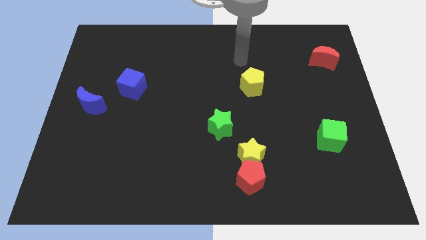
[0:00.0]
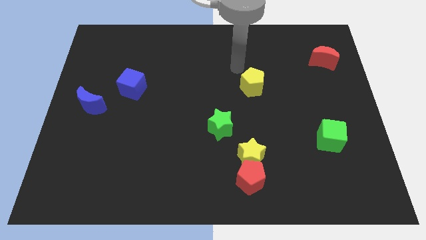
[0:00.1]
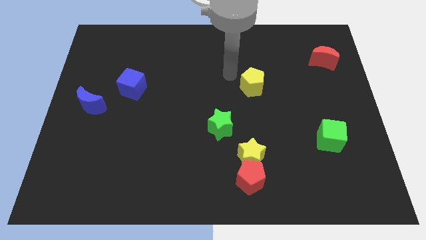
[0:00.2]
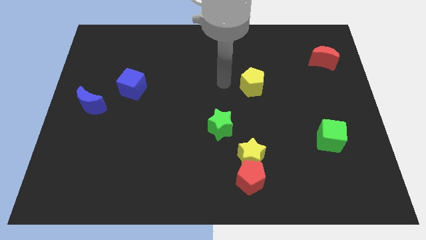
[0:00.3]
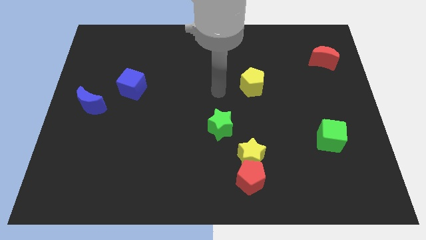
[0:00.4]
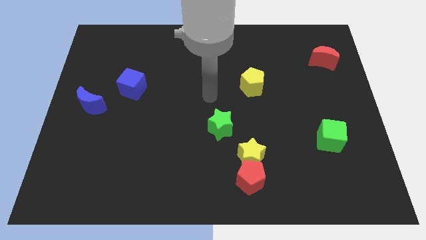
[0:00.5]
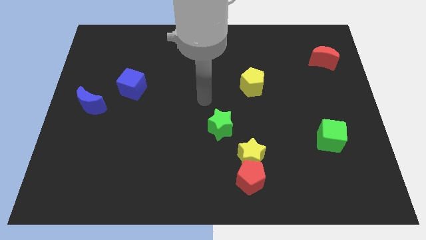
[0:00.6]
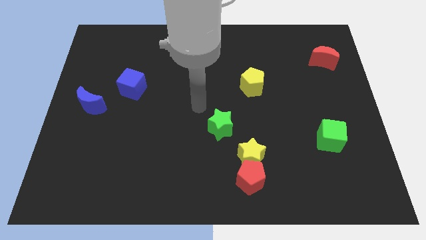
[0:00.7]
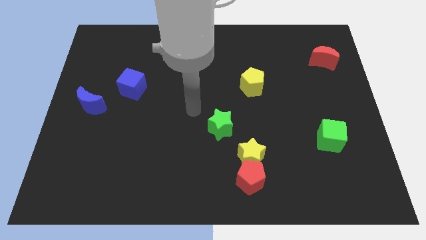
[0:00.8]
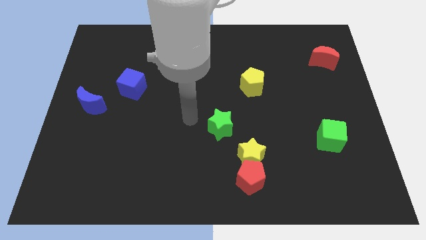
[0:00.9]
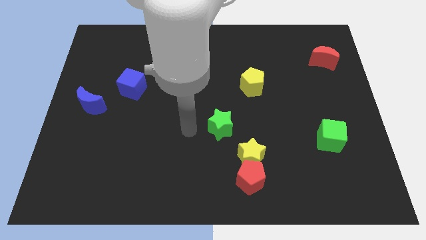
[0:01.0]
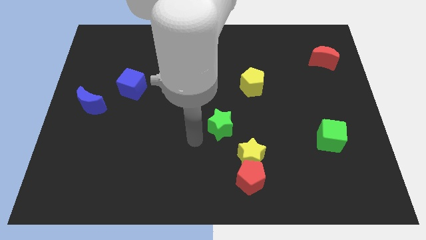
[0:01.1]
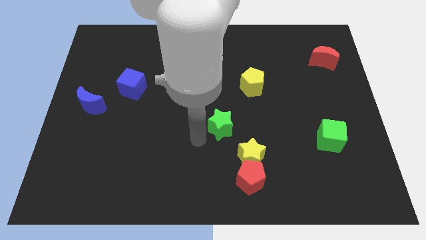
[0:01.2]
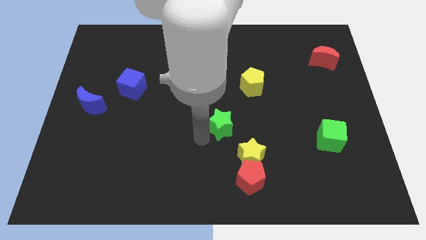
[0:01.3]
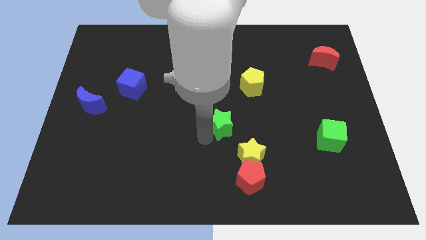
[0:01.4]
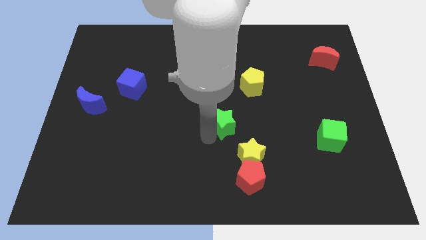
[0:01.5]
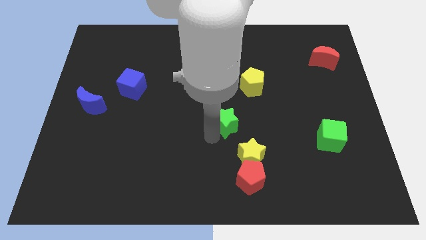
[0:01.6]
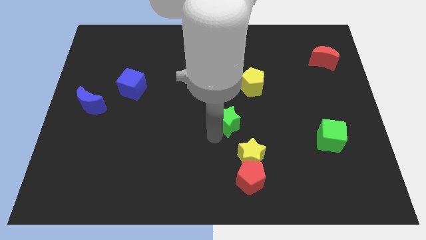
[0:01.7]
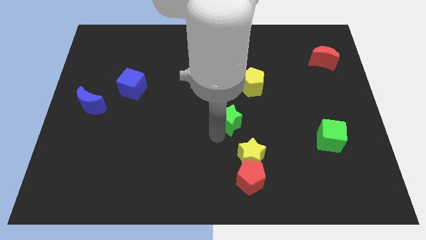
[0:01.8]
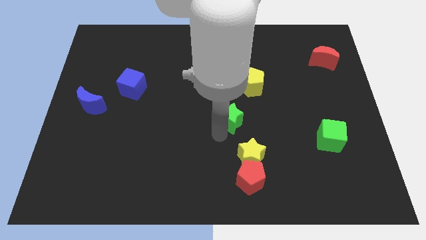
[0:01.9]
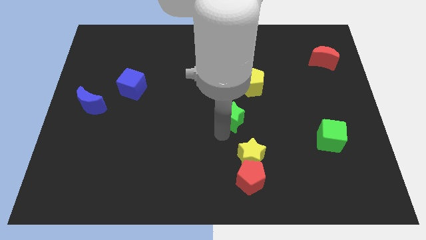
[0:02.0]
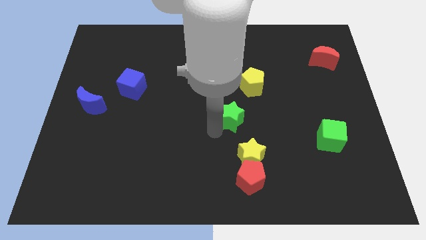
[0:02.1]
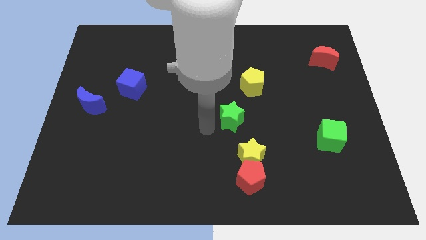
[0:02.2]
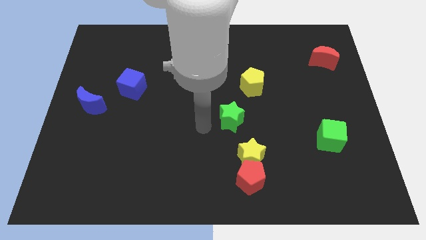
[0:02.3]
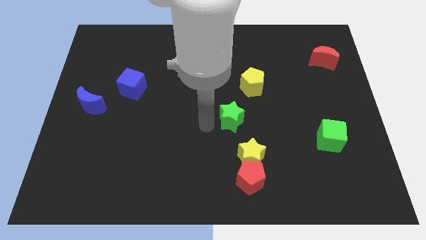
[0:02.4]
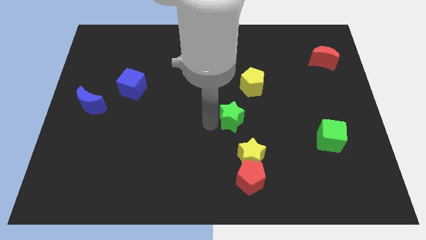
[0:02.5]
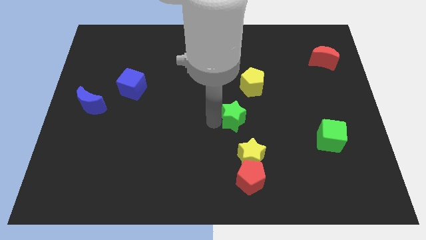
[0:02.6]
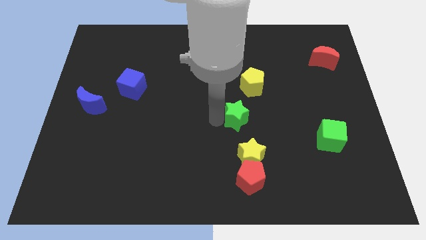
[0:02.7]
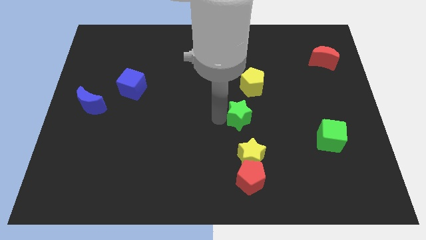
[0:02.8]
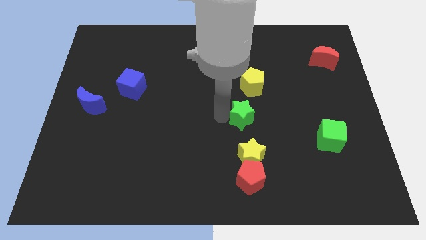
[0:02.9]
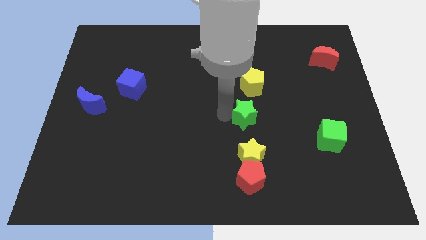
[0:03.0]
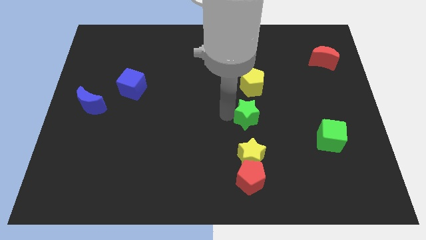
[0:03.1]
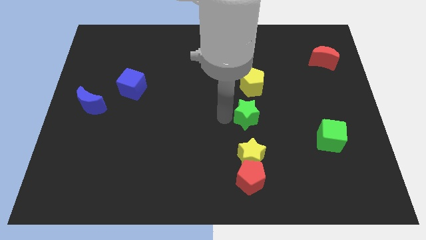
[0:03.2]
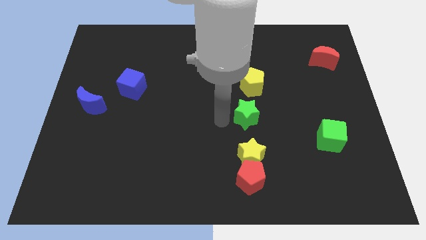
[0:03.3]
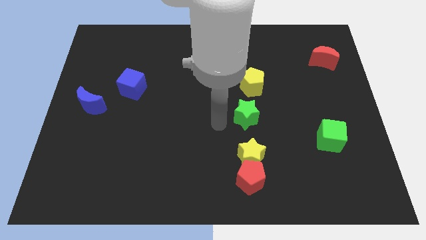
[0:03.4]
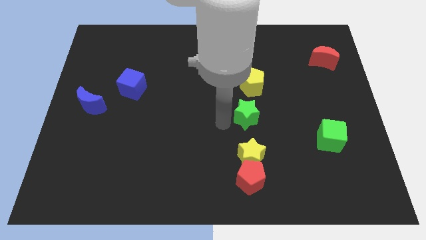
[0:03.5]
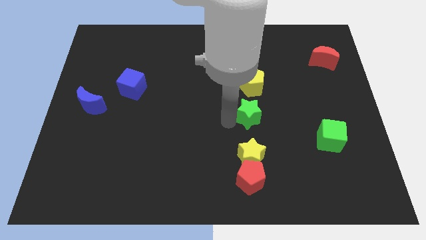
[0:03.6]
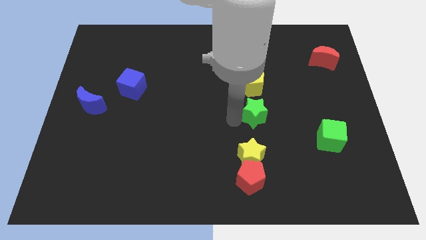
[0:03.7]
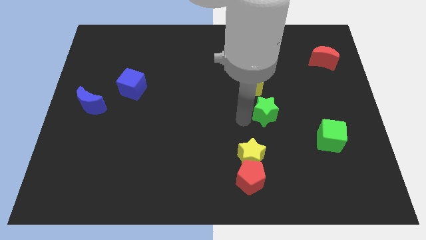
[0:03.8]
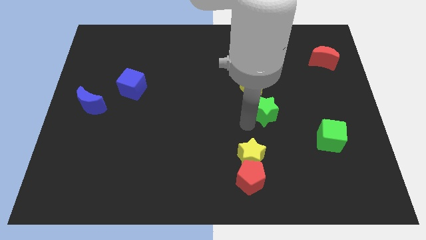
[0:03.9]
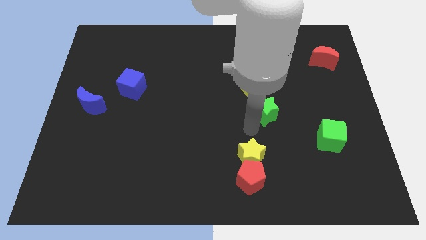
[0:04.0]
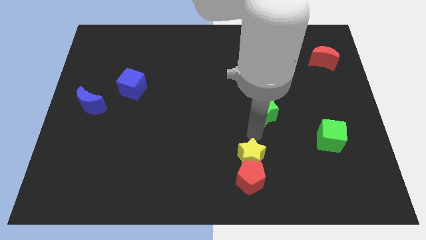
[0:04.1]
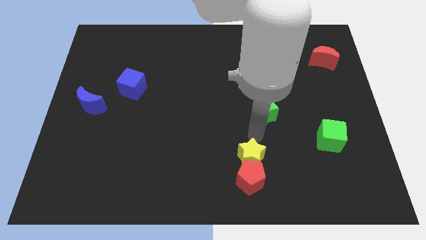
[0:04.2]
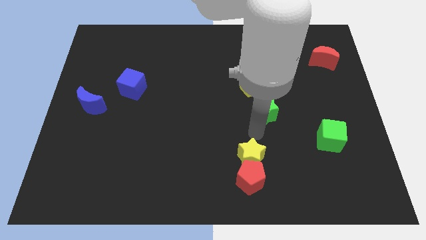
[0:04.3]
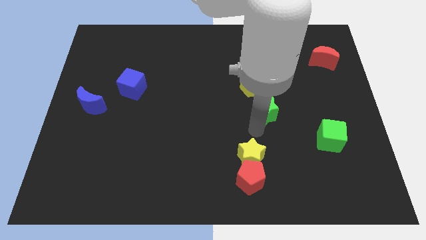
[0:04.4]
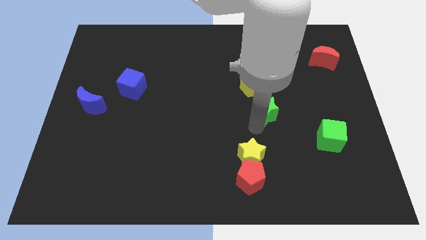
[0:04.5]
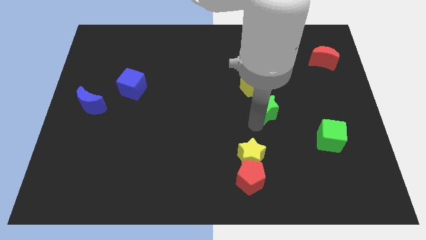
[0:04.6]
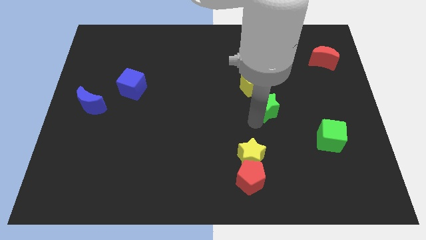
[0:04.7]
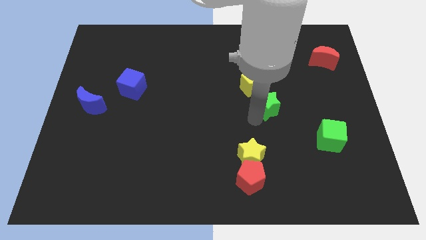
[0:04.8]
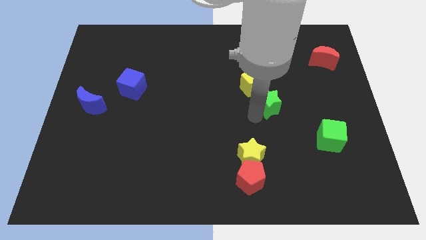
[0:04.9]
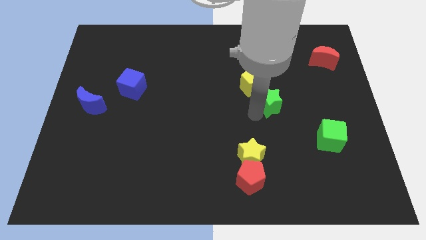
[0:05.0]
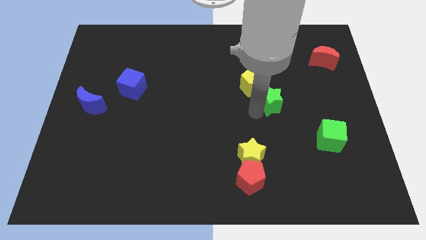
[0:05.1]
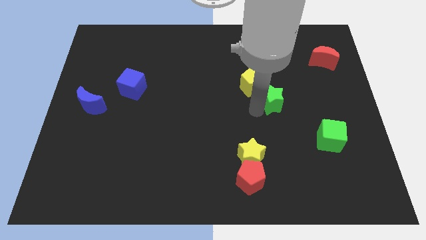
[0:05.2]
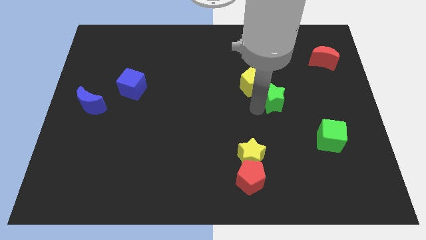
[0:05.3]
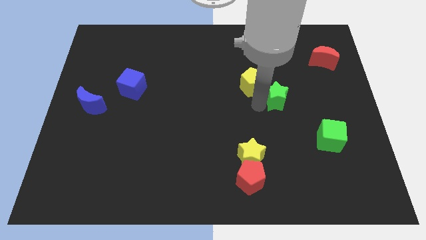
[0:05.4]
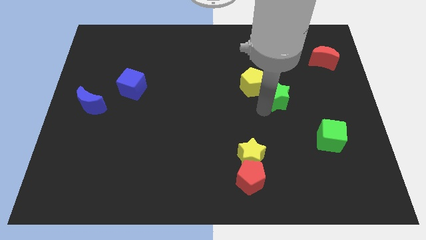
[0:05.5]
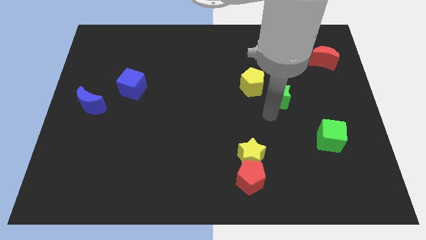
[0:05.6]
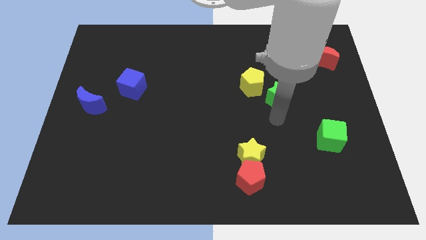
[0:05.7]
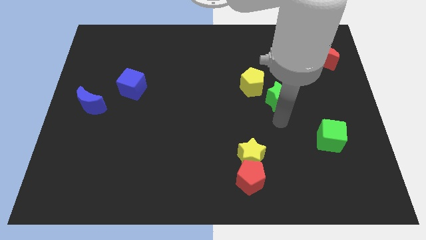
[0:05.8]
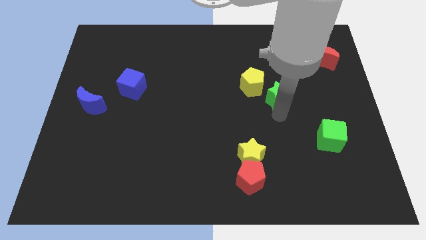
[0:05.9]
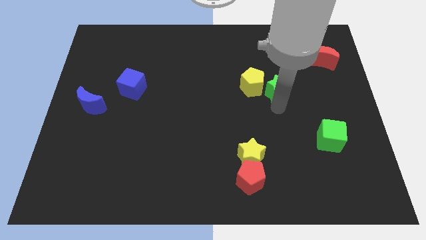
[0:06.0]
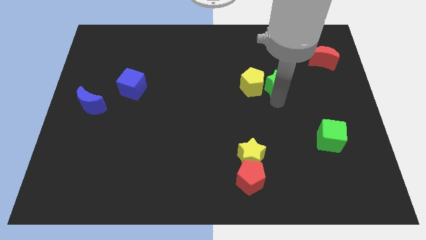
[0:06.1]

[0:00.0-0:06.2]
move the green star to the top right side of the yellow pentagon

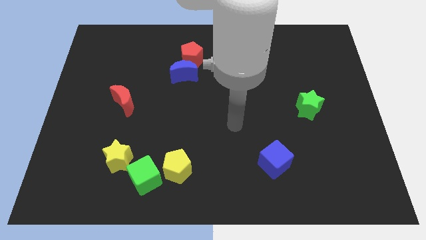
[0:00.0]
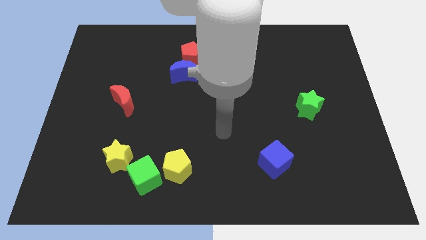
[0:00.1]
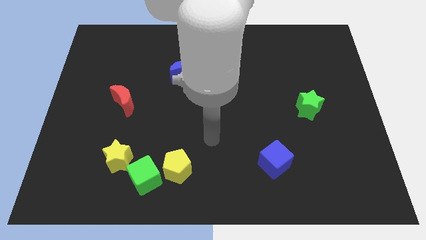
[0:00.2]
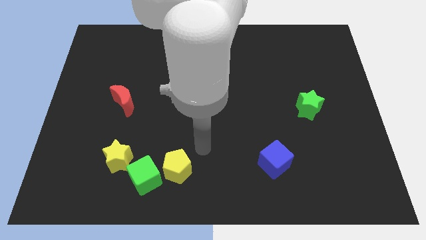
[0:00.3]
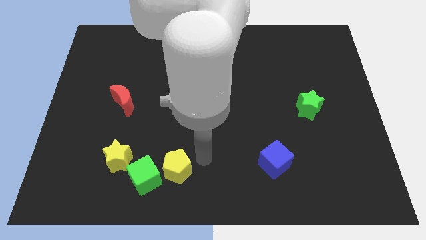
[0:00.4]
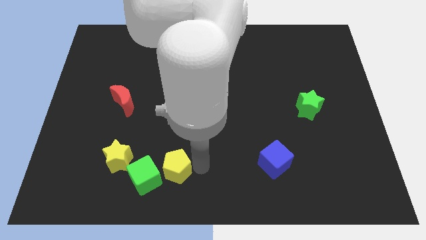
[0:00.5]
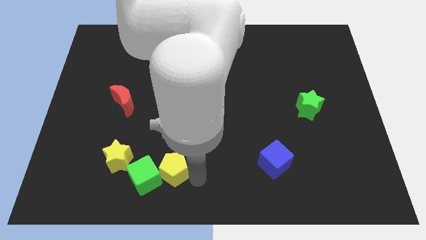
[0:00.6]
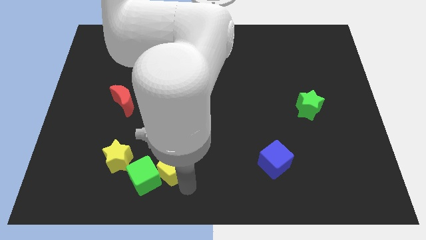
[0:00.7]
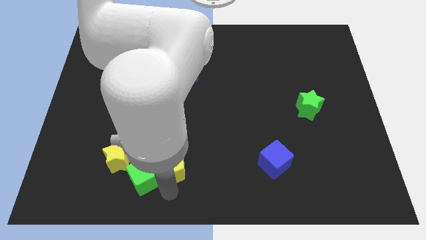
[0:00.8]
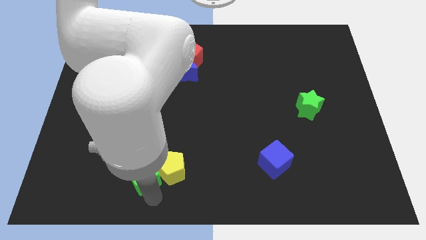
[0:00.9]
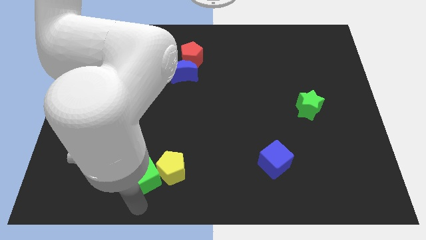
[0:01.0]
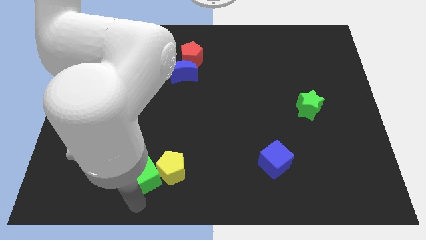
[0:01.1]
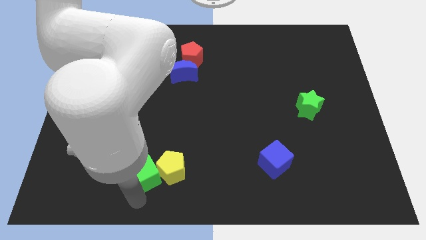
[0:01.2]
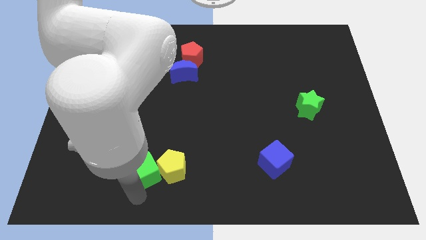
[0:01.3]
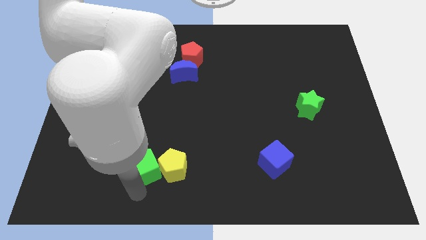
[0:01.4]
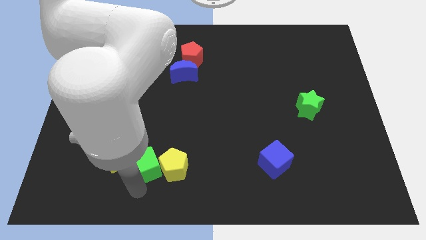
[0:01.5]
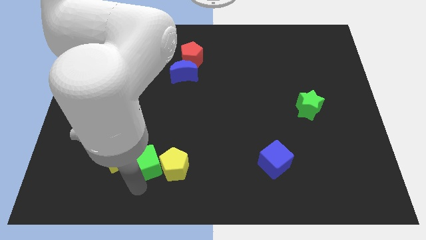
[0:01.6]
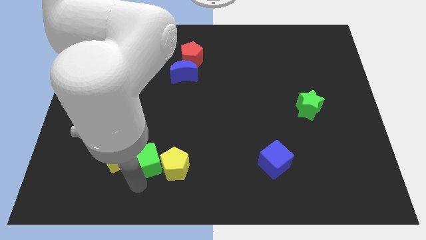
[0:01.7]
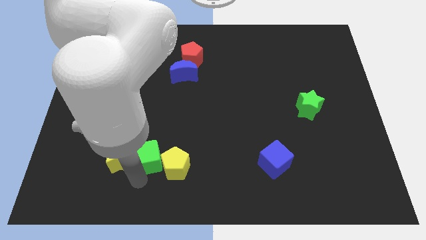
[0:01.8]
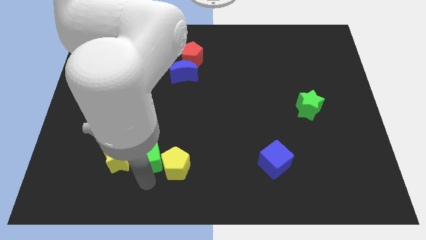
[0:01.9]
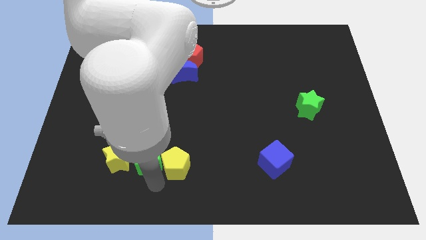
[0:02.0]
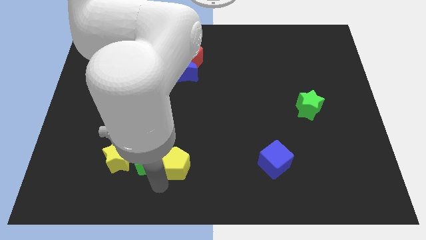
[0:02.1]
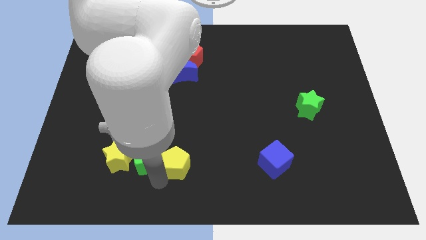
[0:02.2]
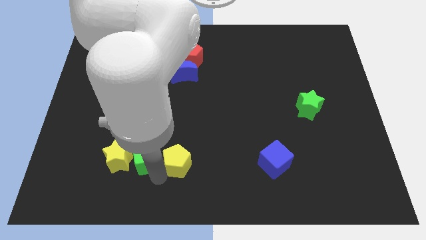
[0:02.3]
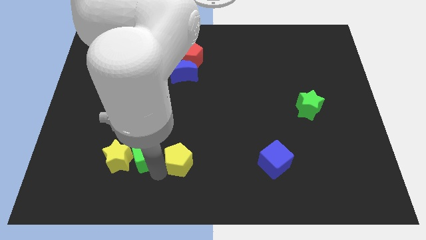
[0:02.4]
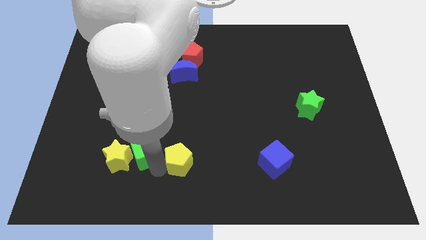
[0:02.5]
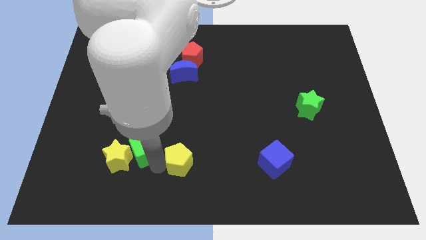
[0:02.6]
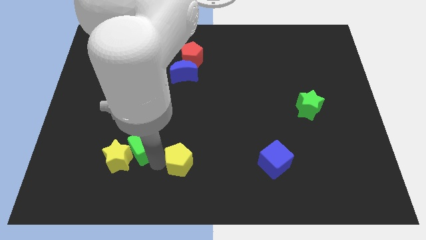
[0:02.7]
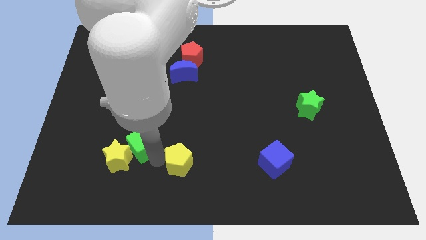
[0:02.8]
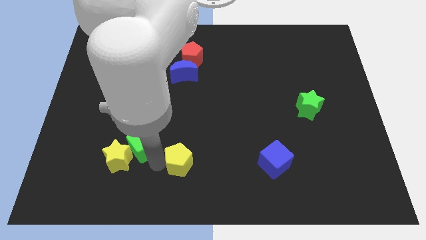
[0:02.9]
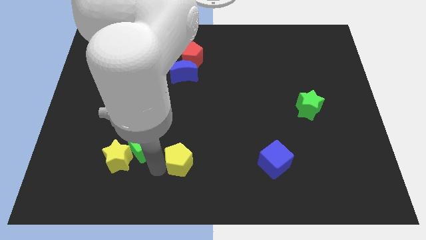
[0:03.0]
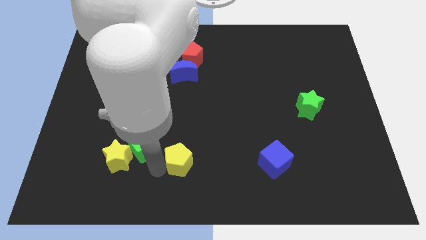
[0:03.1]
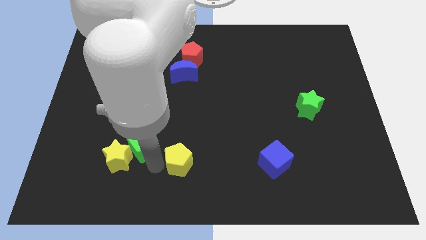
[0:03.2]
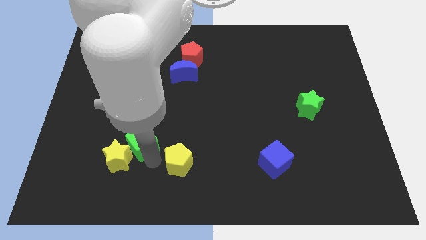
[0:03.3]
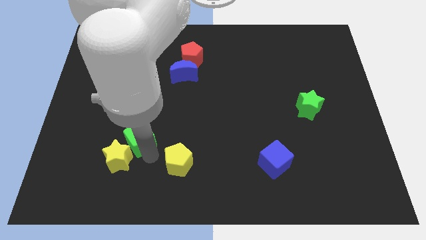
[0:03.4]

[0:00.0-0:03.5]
put the green cube to the top side of the yellow star
